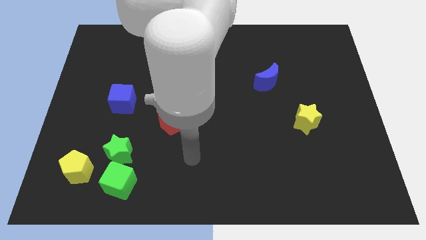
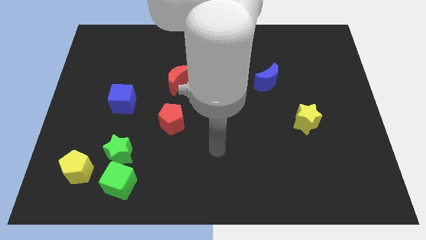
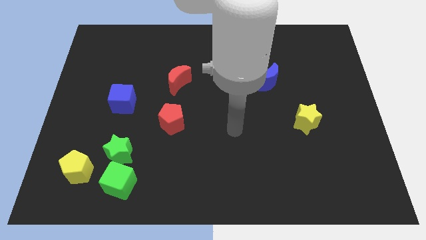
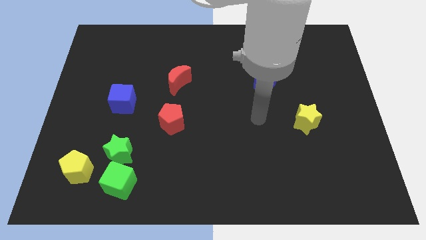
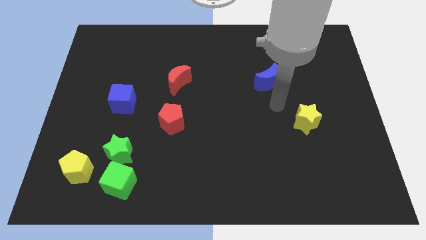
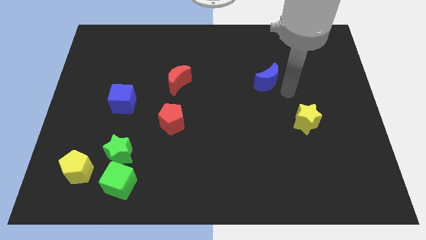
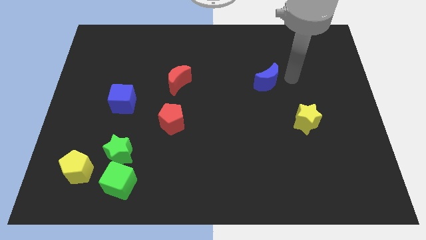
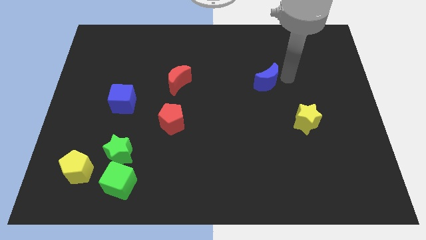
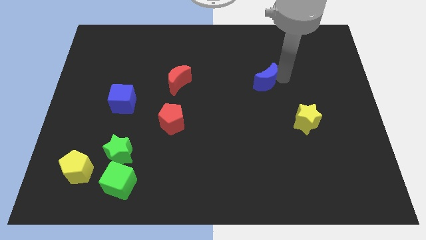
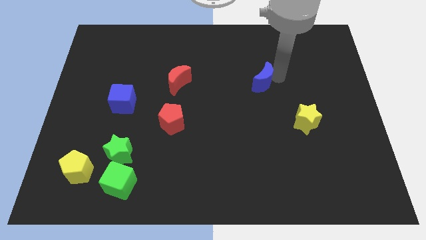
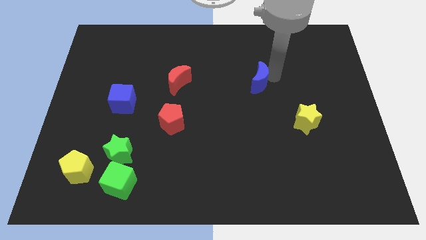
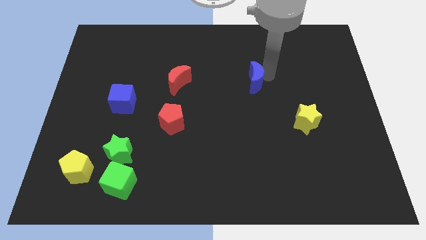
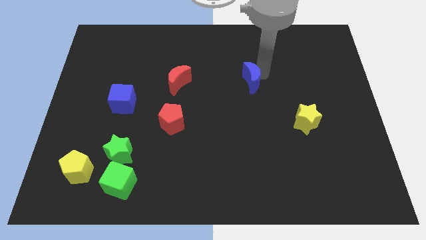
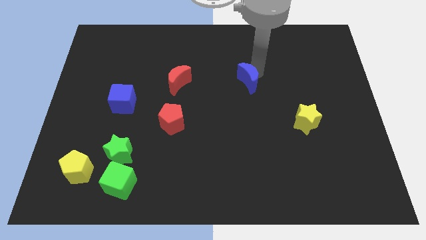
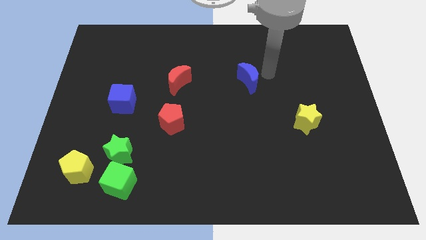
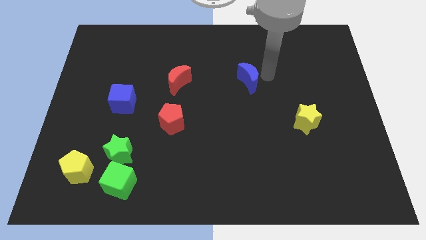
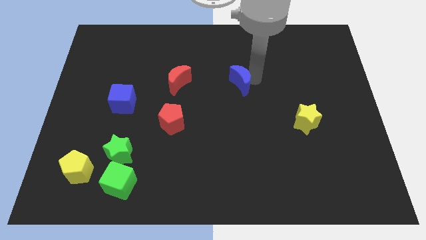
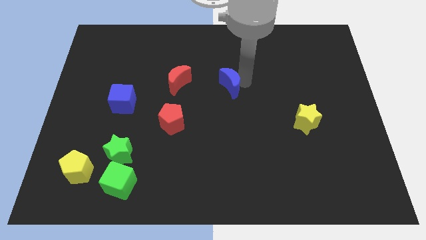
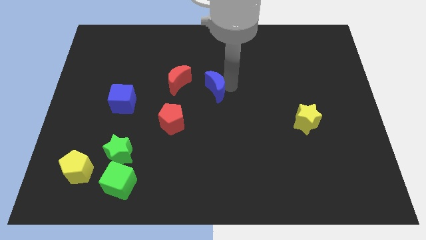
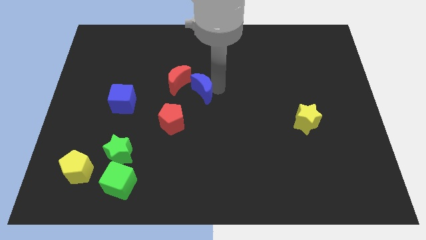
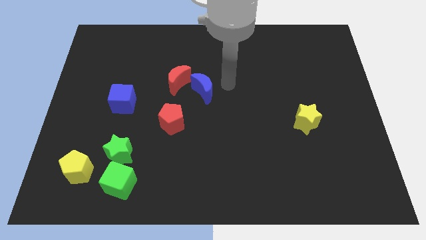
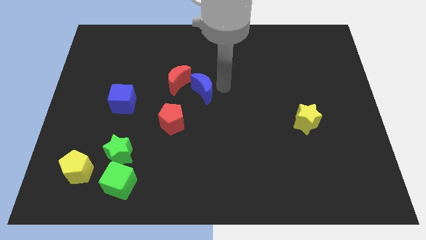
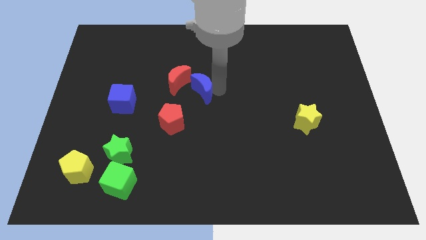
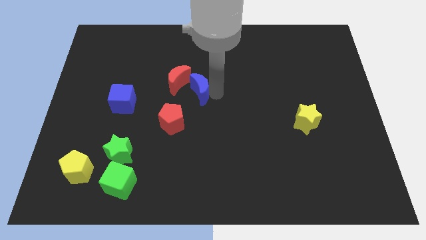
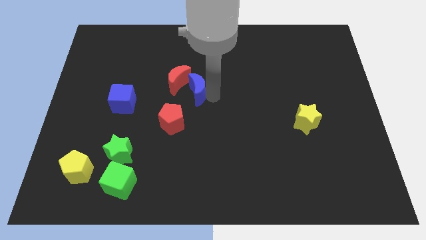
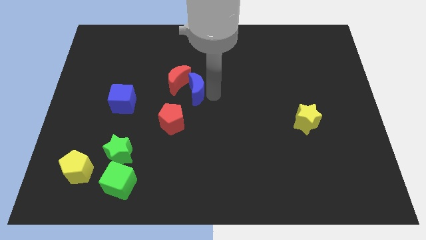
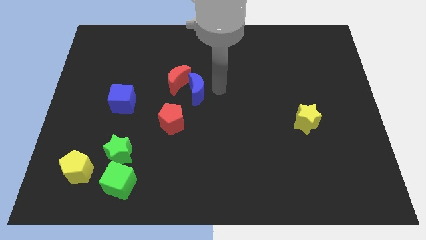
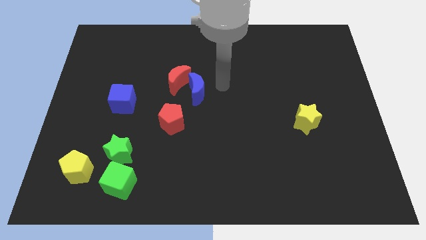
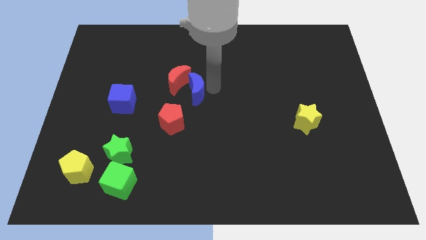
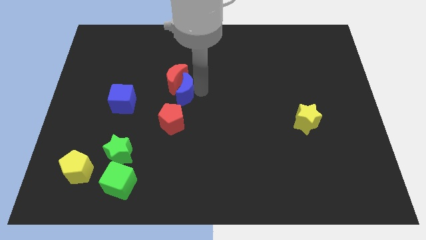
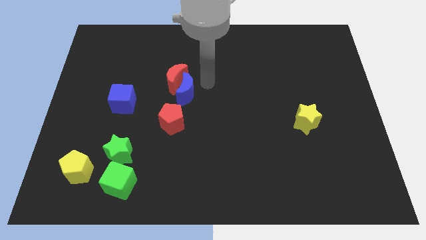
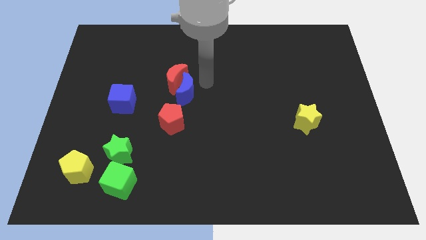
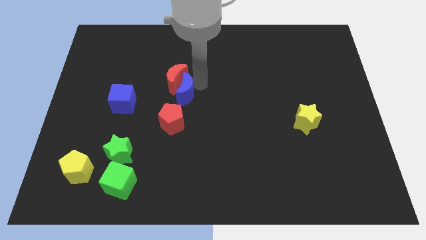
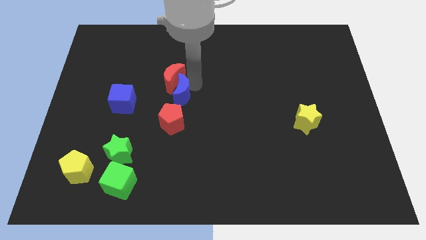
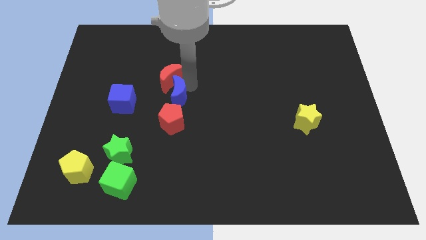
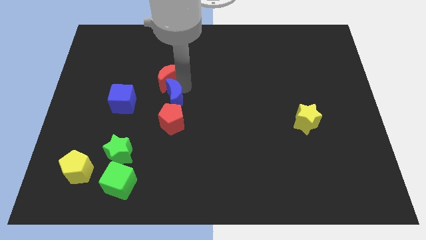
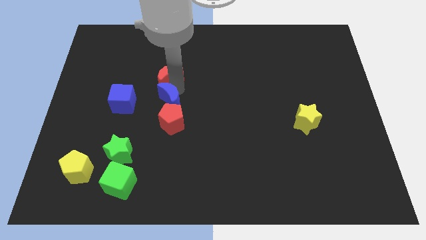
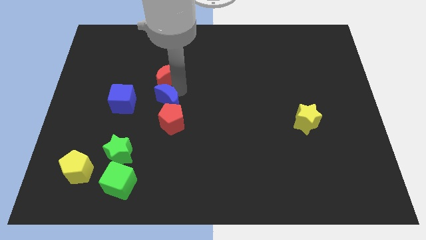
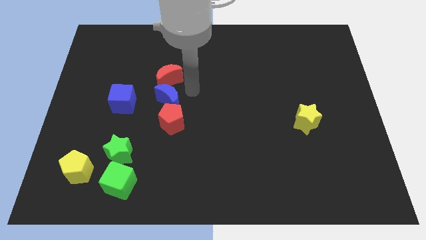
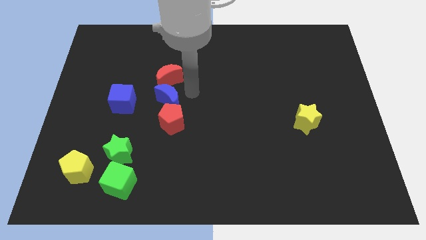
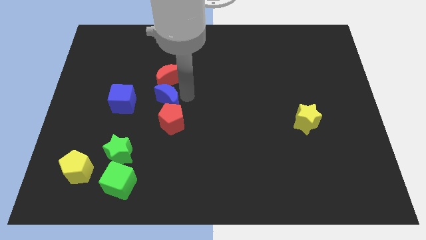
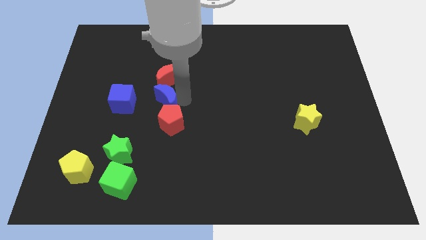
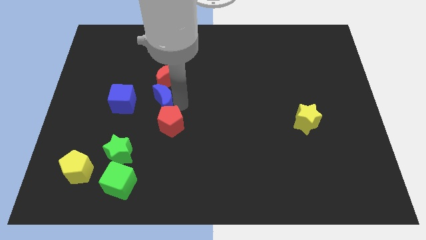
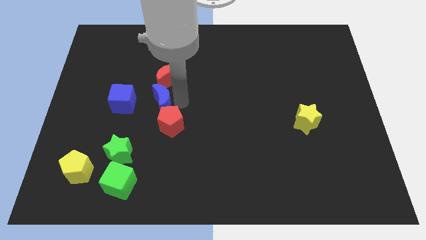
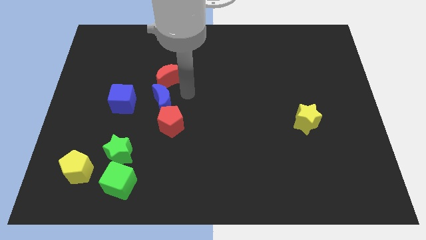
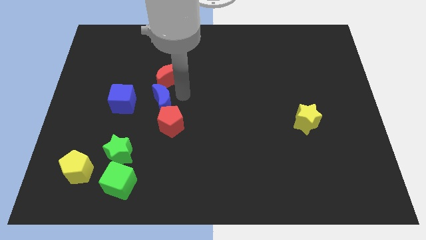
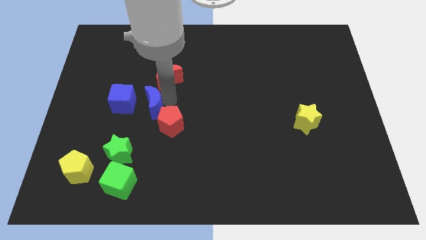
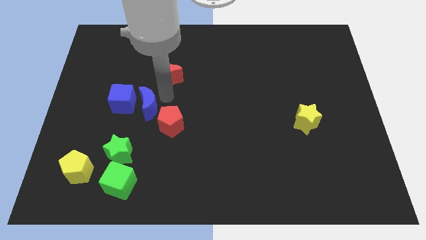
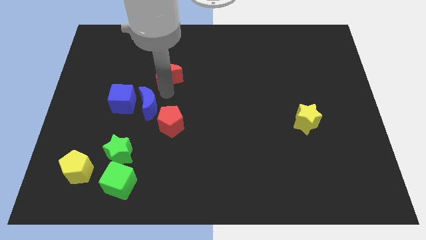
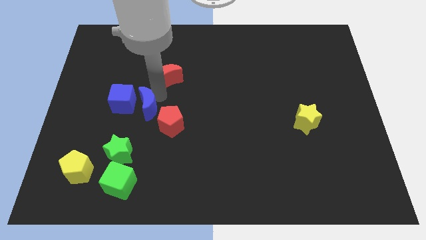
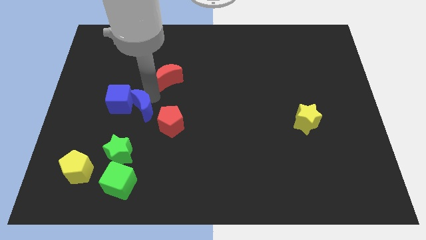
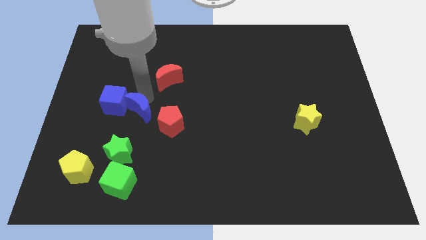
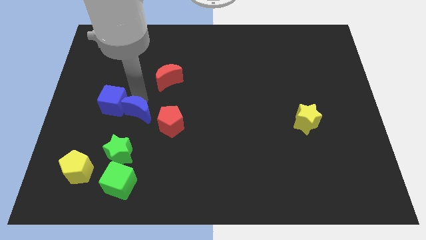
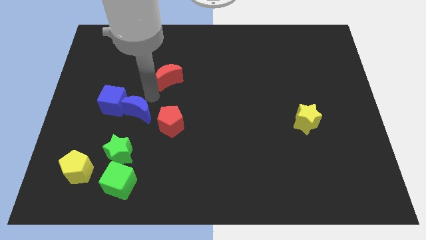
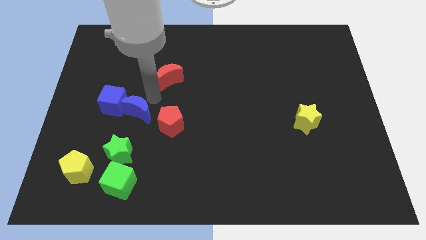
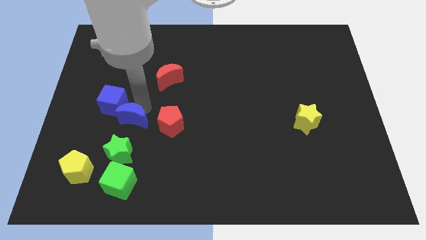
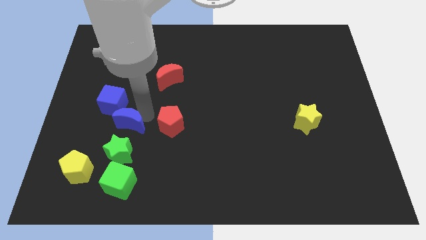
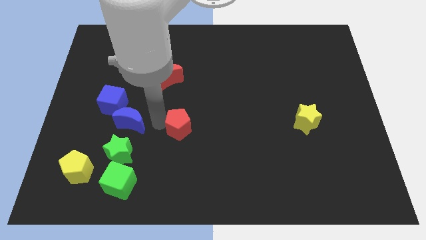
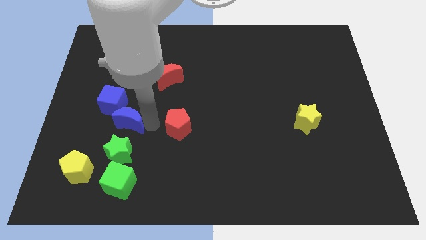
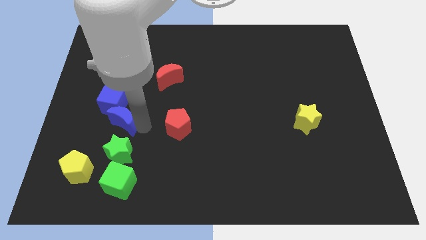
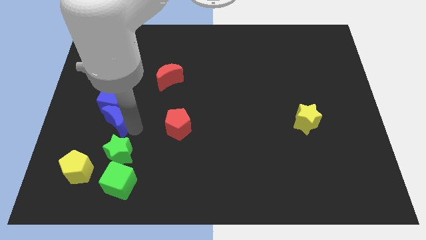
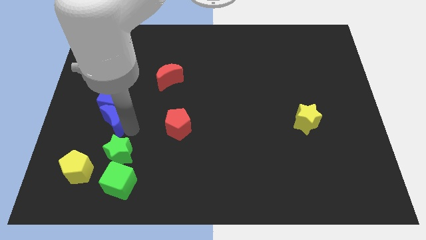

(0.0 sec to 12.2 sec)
slide the blue moon diagonally down and to the left of the blue cube
